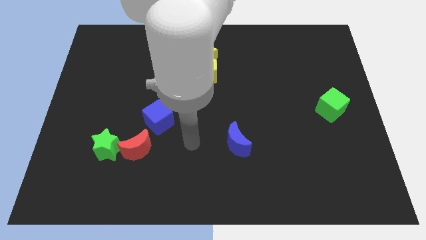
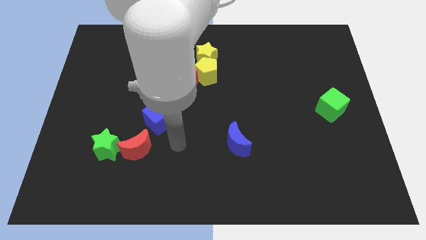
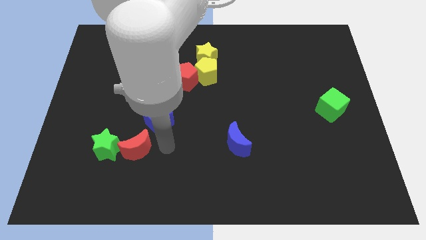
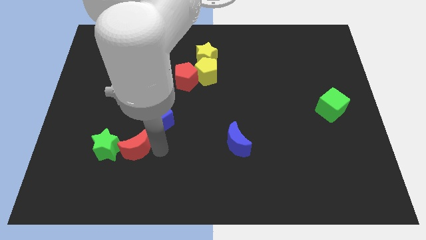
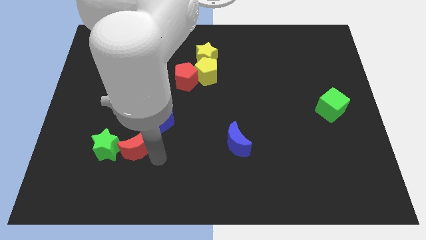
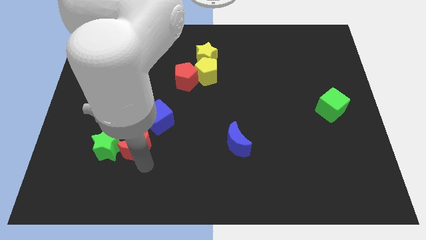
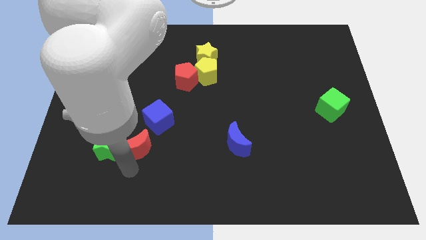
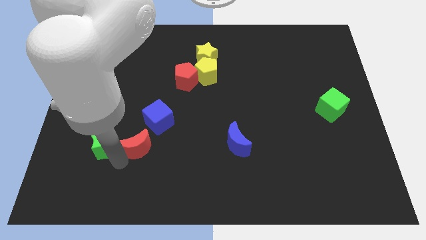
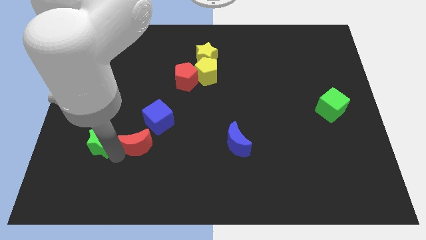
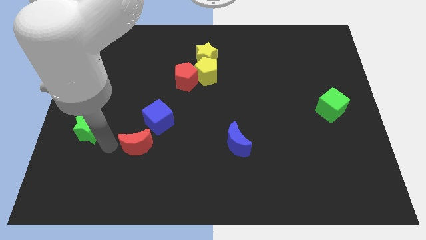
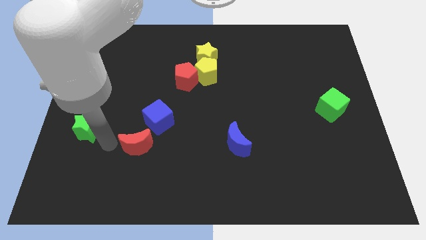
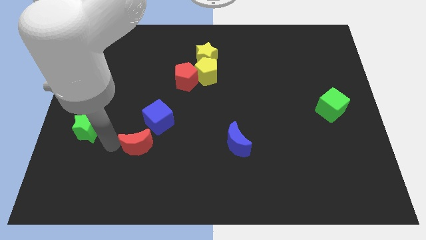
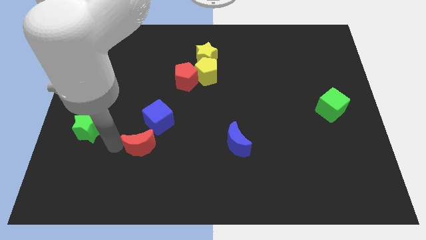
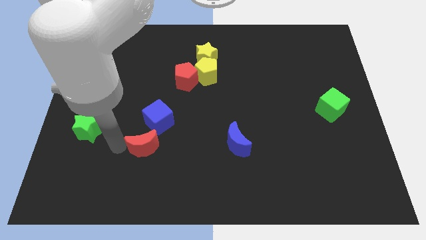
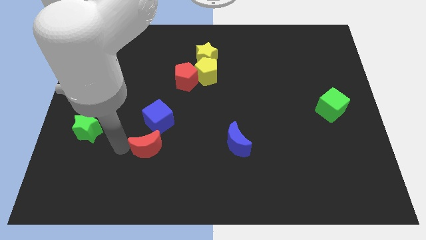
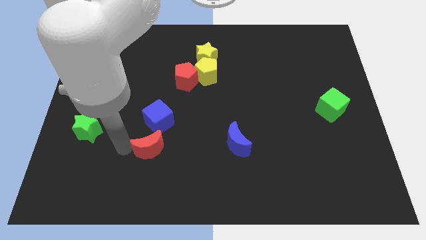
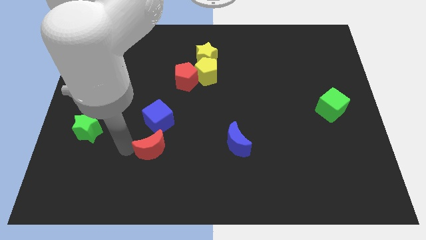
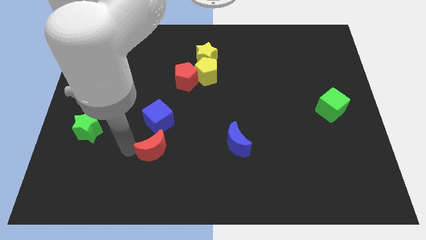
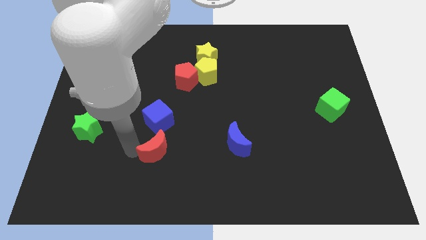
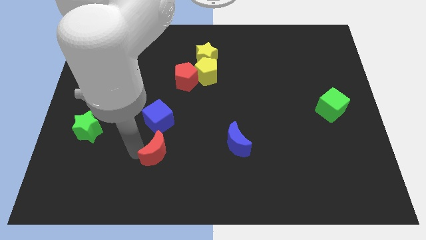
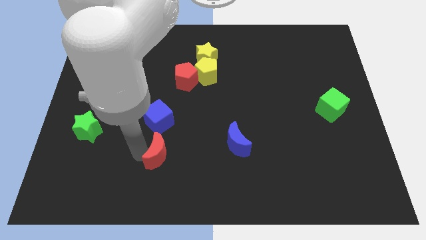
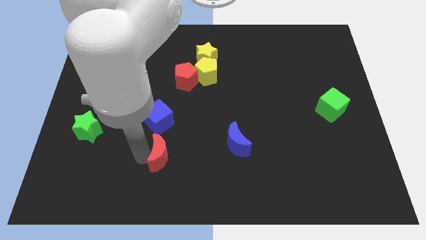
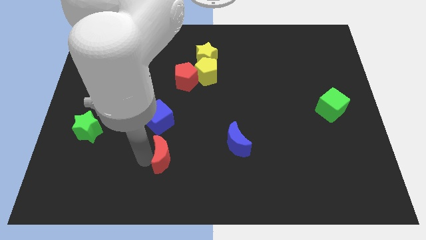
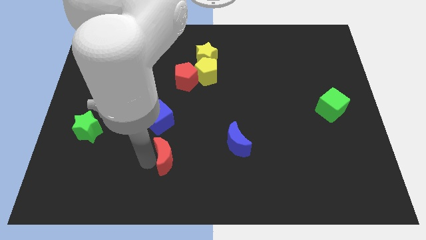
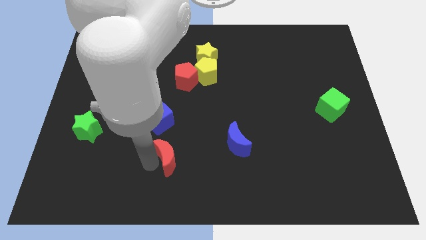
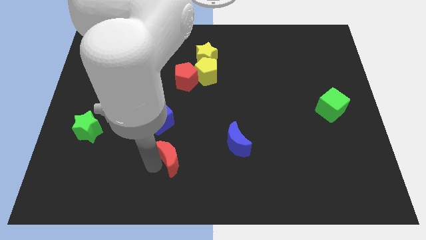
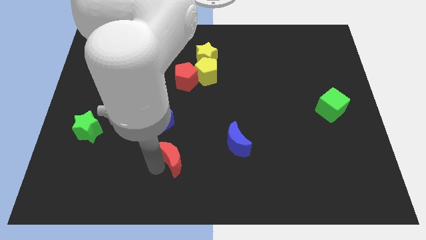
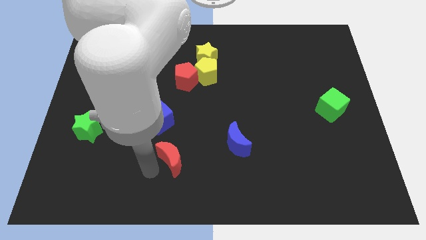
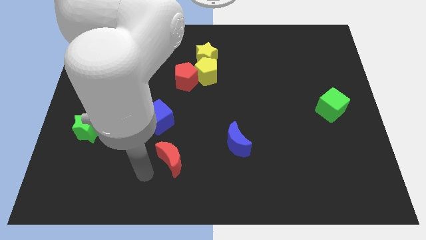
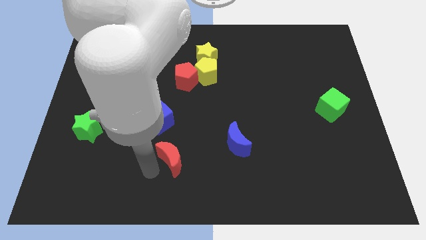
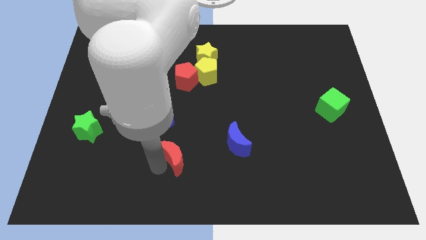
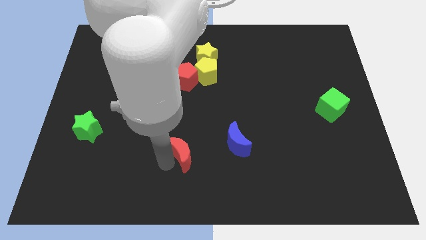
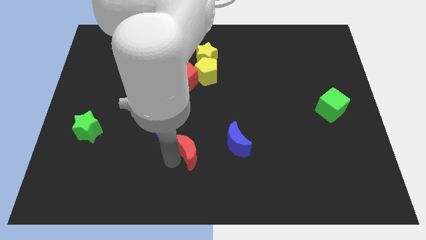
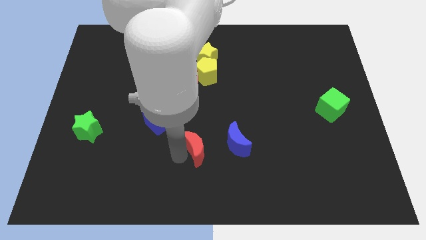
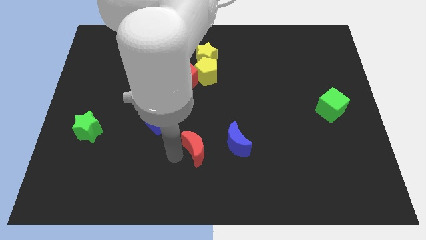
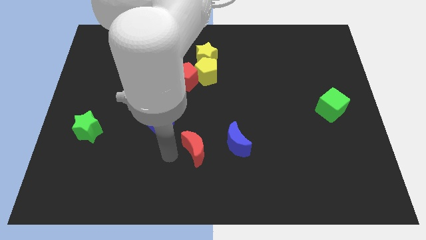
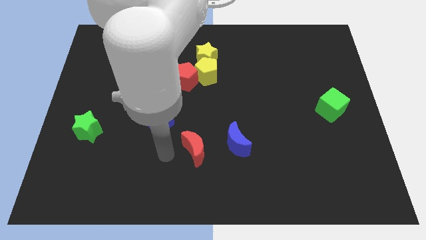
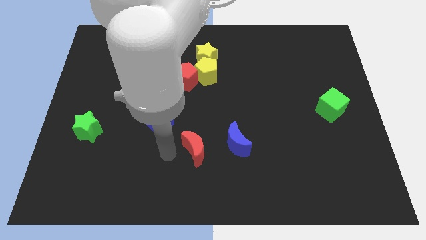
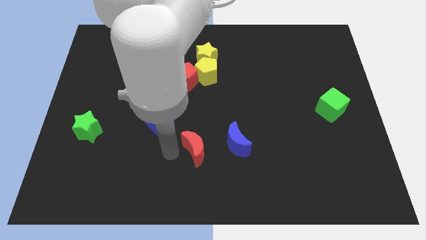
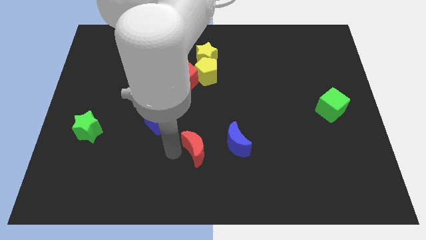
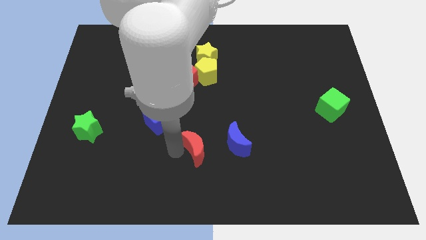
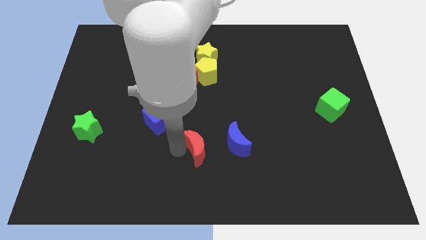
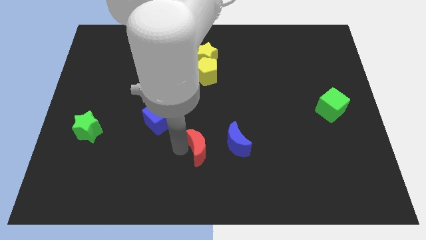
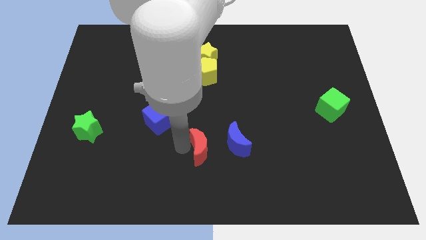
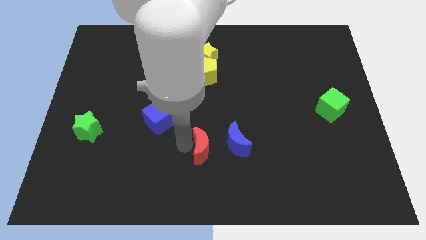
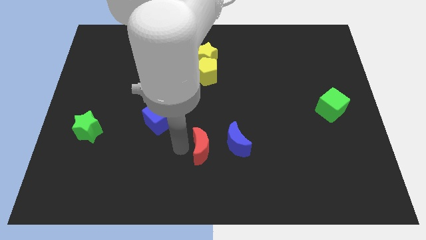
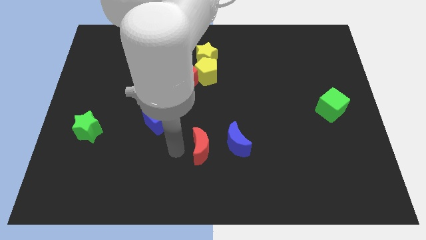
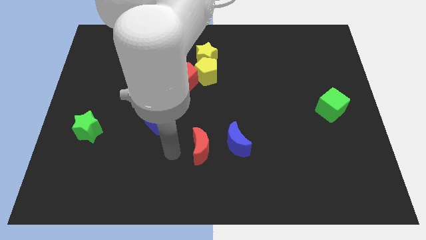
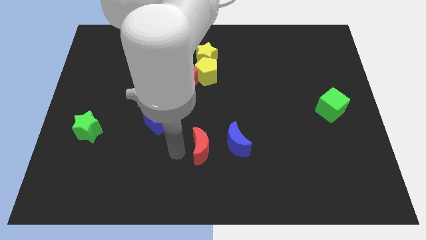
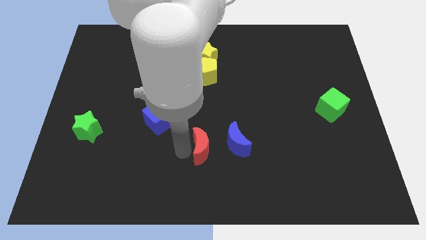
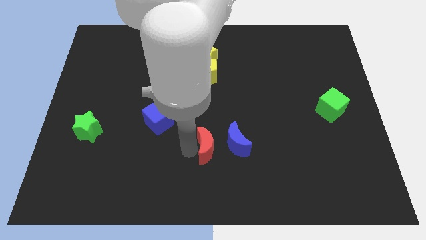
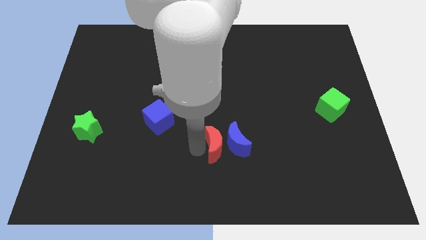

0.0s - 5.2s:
put the red moon next to the blue moon

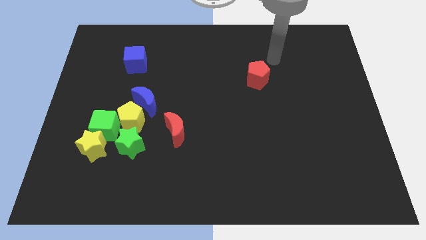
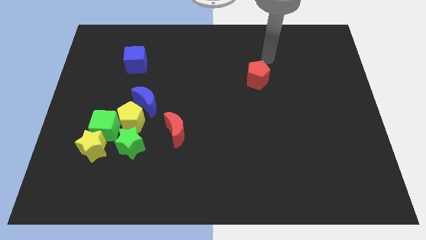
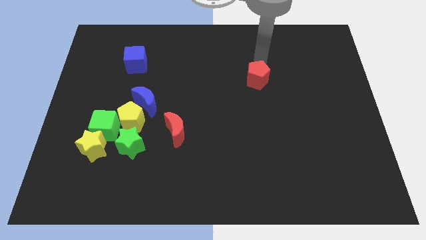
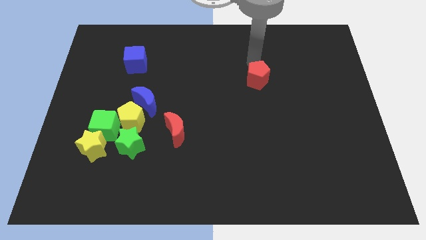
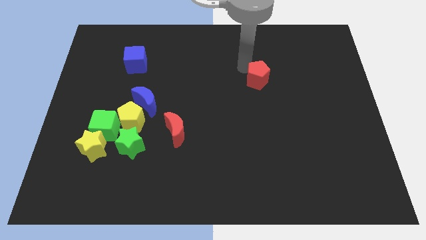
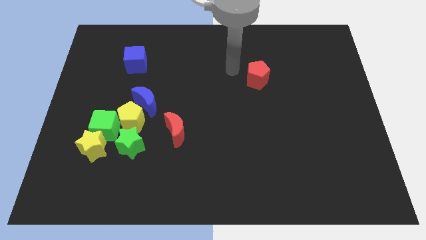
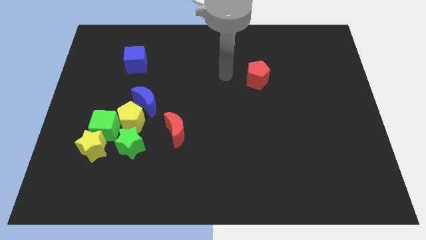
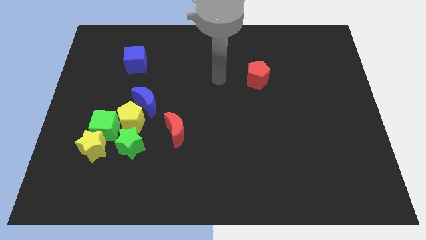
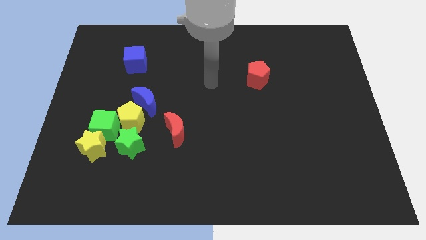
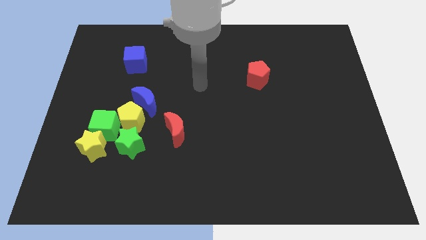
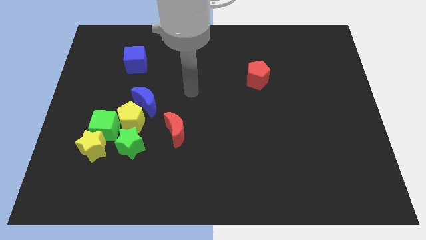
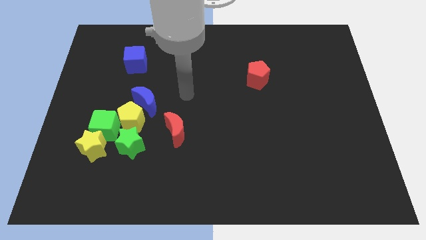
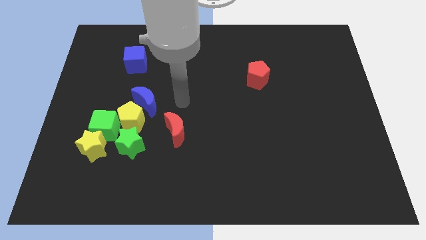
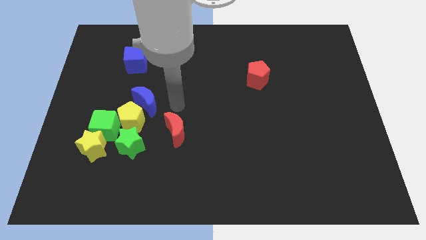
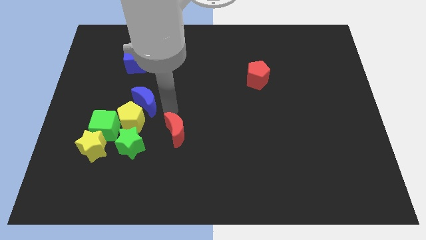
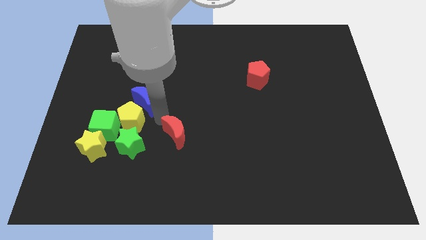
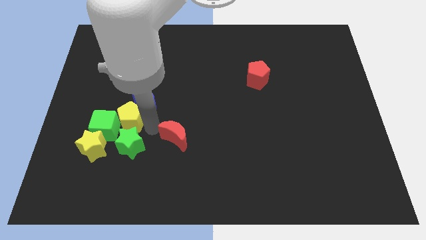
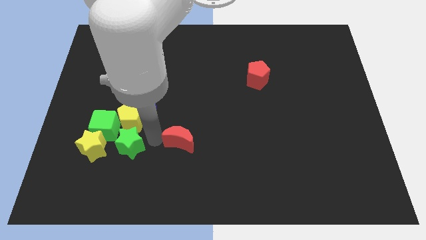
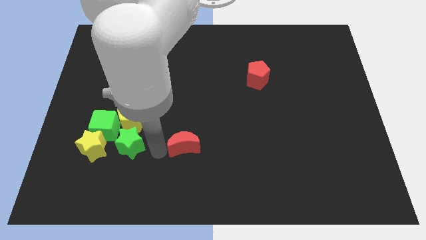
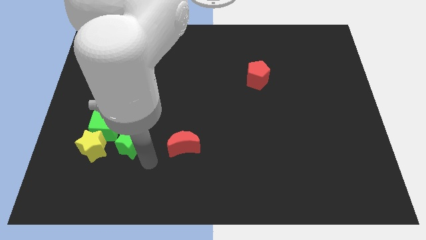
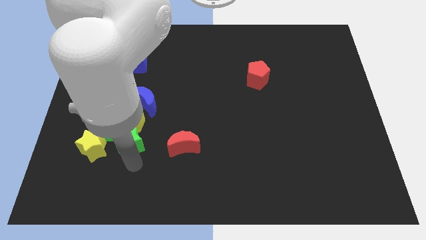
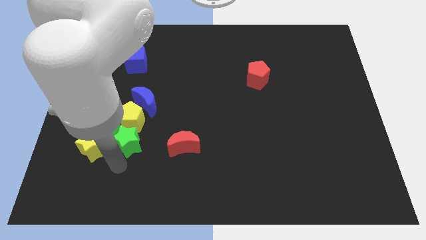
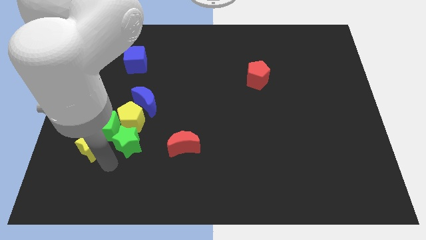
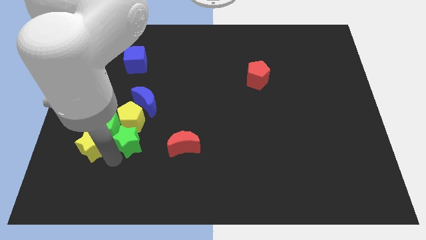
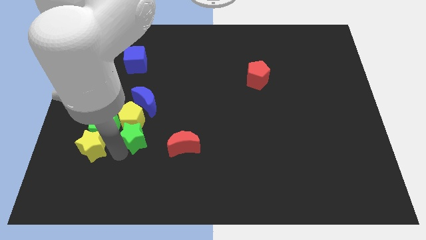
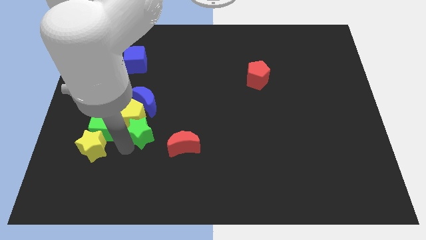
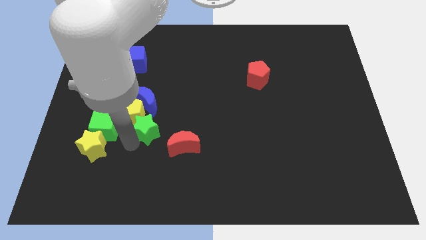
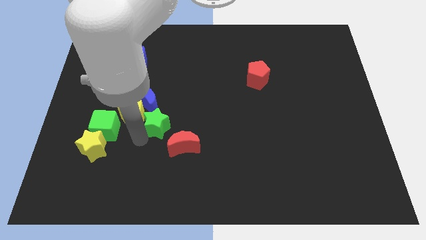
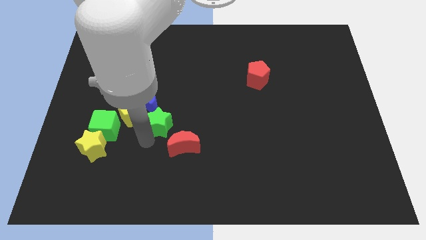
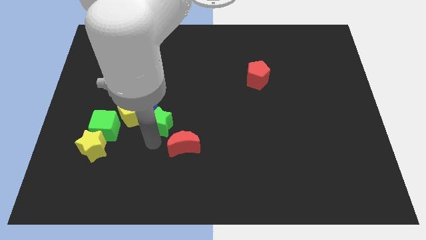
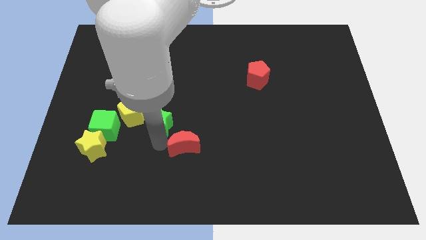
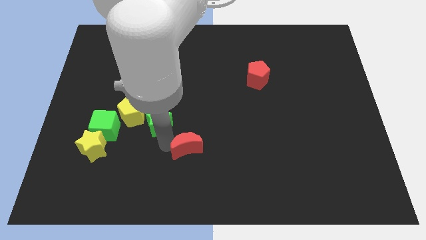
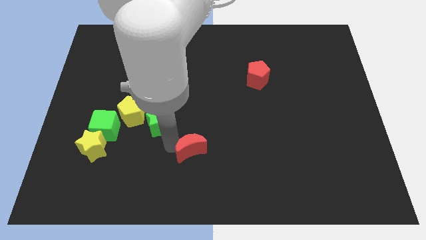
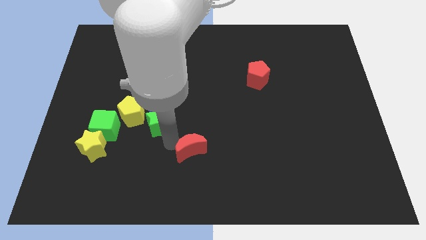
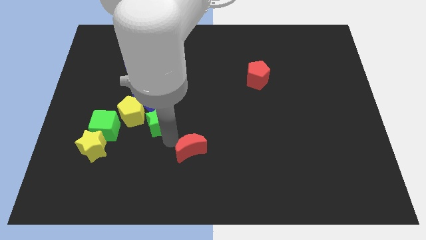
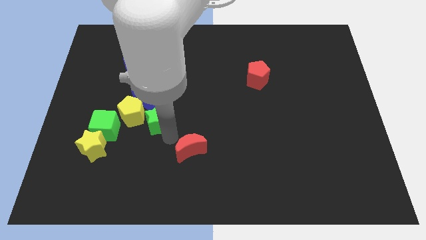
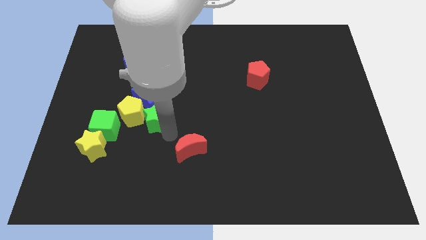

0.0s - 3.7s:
push the green star to the blue moon
